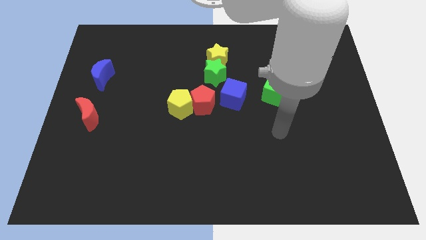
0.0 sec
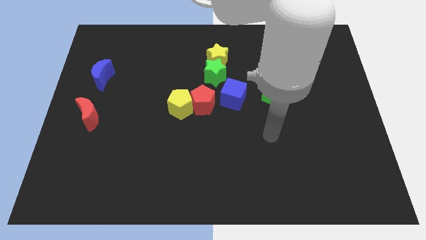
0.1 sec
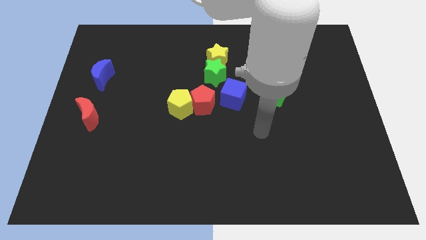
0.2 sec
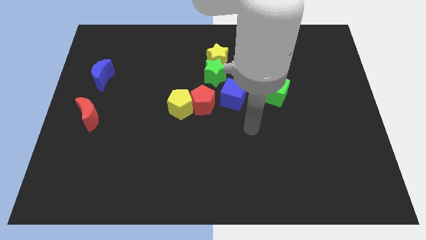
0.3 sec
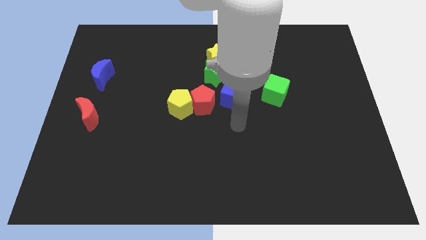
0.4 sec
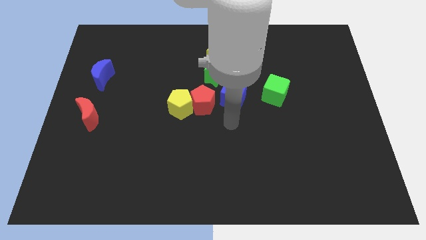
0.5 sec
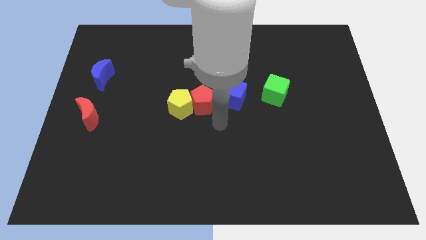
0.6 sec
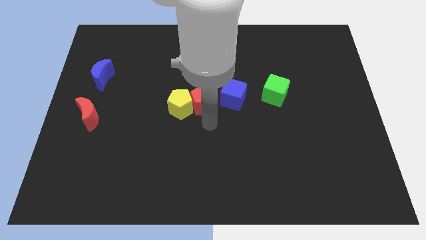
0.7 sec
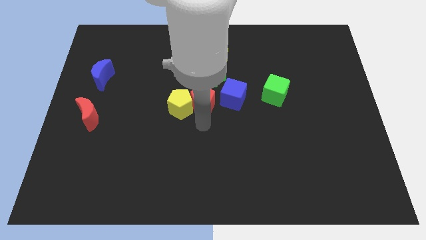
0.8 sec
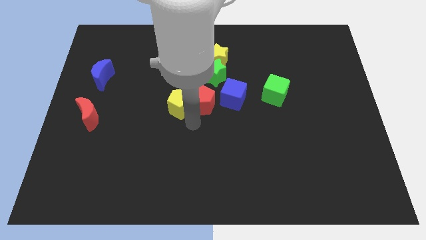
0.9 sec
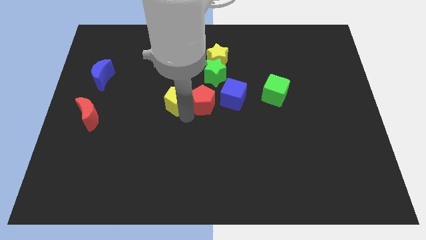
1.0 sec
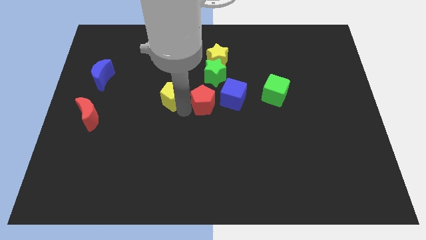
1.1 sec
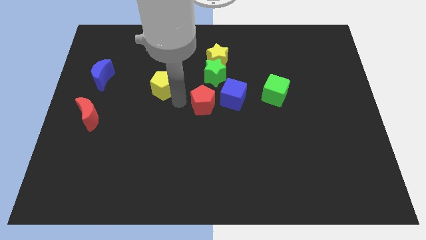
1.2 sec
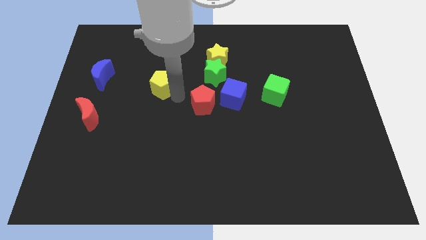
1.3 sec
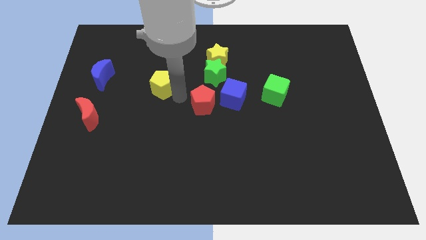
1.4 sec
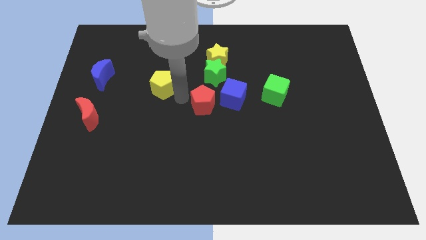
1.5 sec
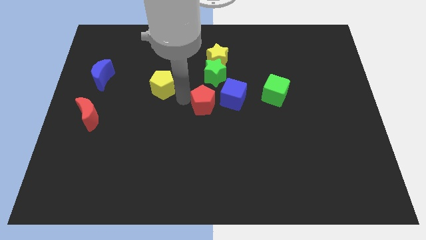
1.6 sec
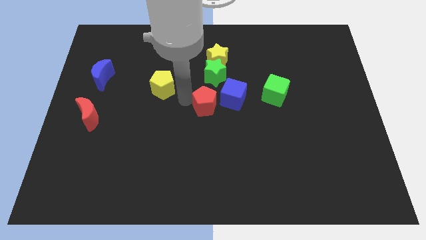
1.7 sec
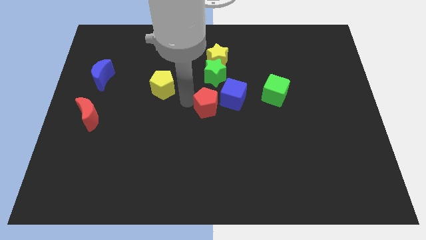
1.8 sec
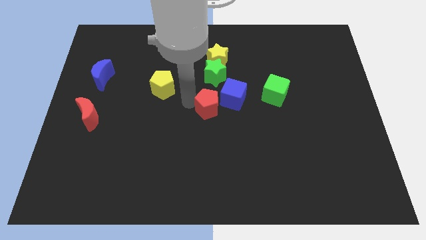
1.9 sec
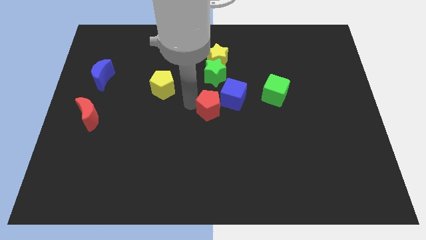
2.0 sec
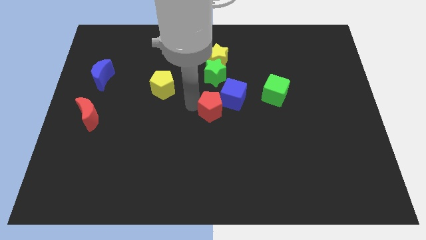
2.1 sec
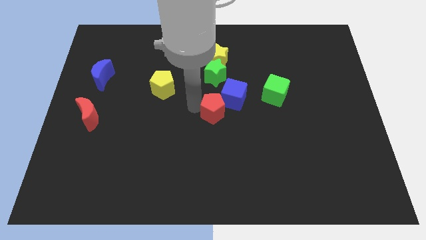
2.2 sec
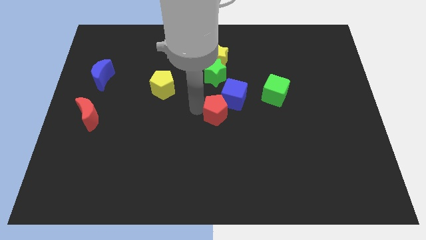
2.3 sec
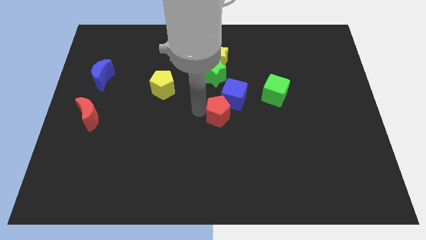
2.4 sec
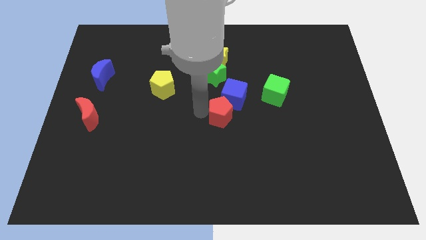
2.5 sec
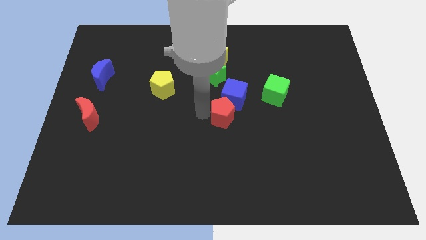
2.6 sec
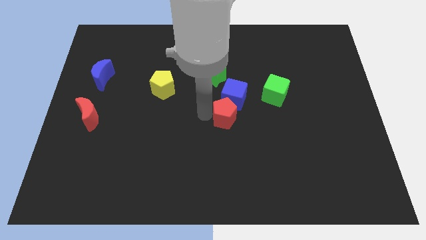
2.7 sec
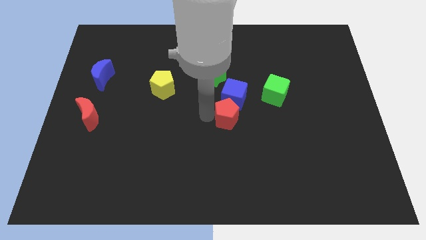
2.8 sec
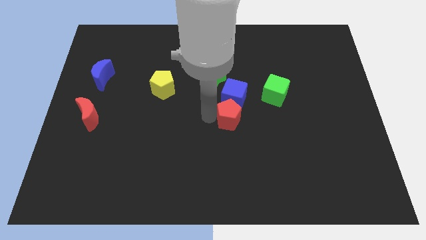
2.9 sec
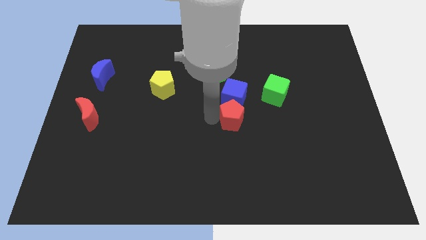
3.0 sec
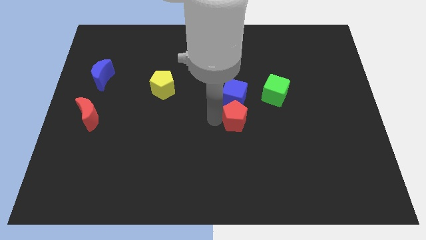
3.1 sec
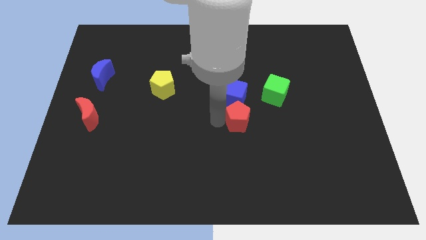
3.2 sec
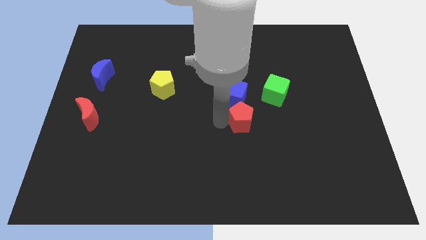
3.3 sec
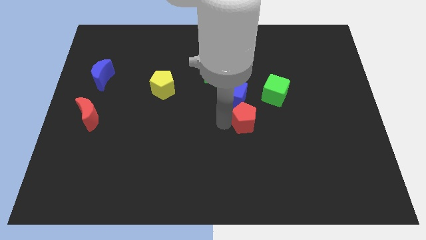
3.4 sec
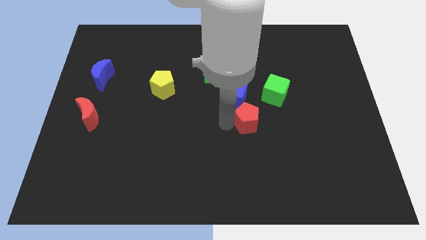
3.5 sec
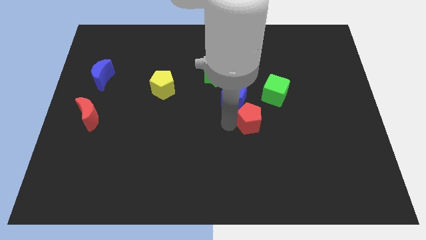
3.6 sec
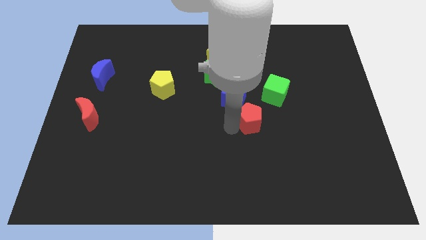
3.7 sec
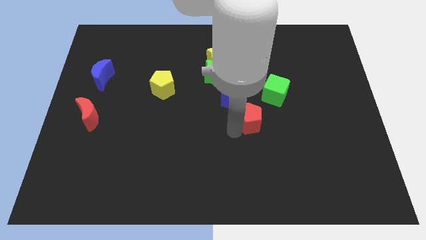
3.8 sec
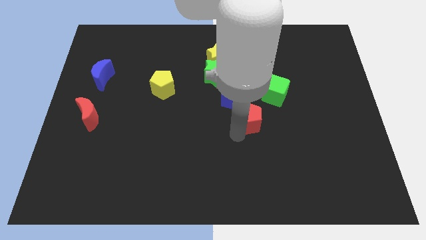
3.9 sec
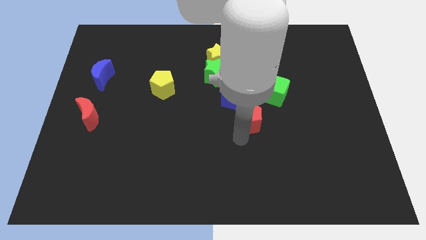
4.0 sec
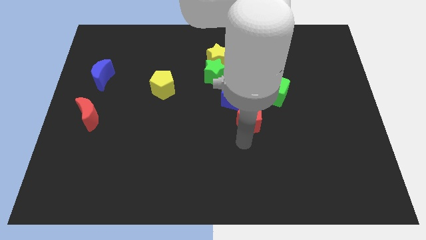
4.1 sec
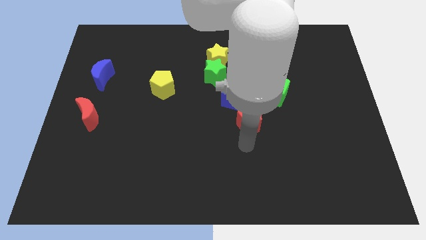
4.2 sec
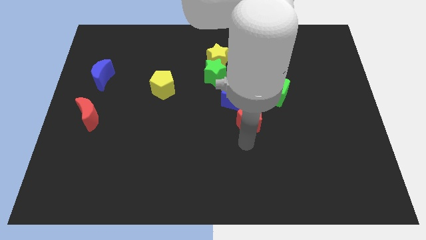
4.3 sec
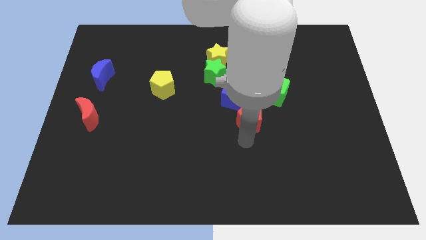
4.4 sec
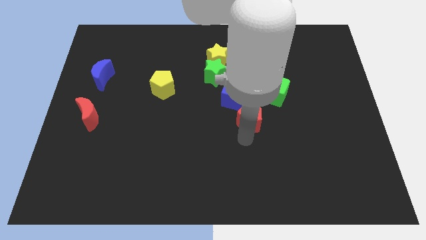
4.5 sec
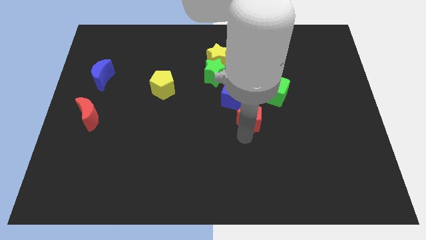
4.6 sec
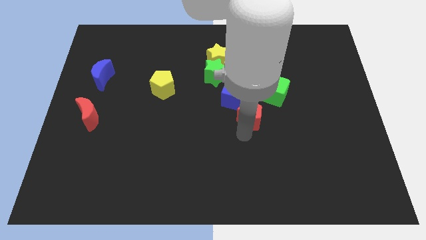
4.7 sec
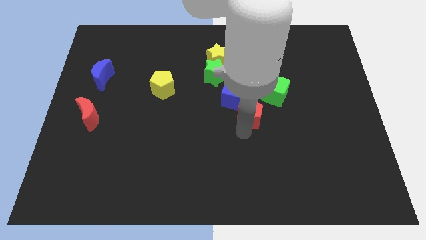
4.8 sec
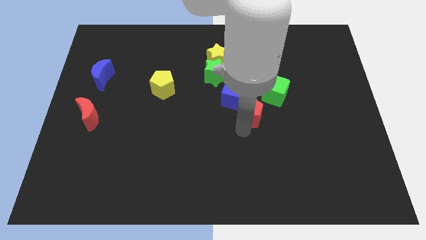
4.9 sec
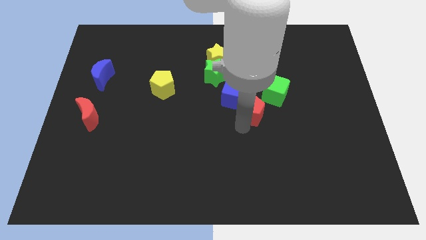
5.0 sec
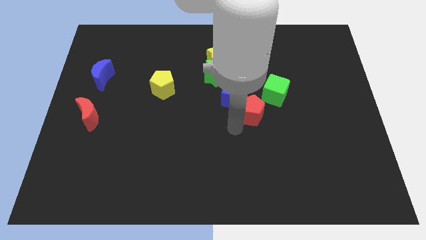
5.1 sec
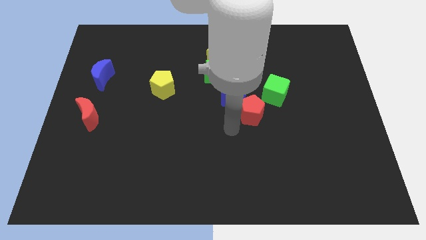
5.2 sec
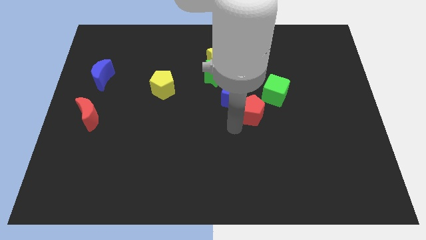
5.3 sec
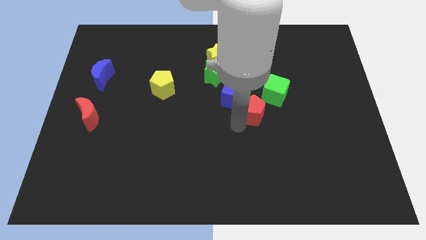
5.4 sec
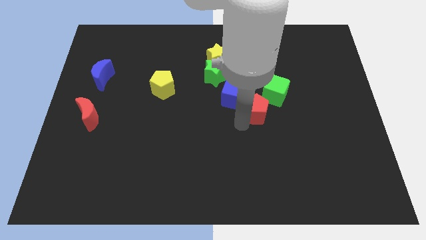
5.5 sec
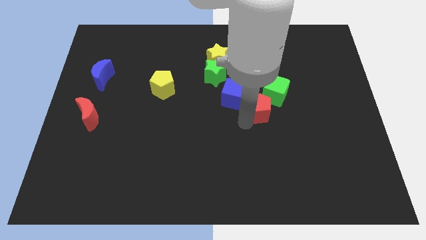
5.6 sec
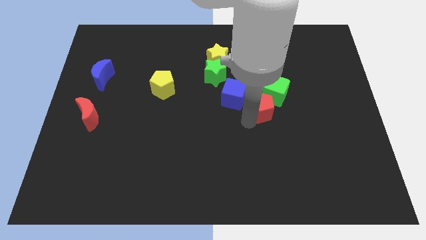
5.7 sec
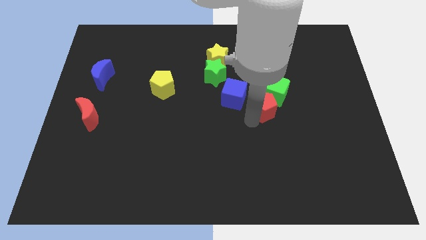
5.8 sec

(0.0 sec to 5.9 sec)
slide the red pentagon to the green cube

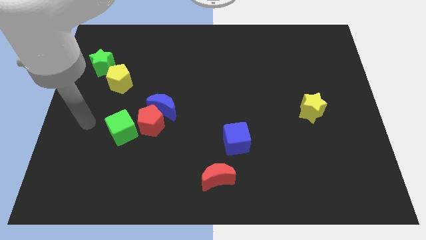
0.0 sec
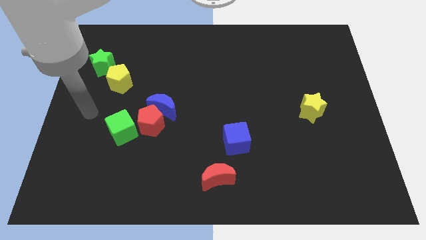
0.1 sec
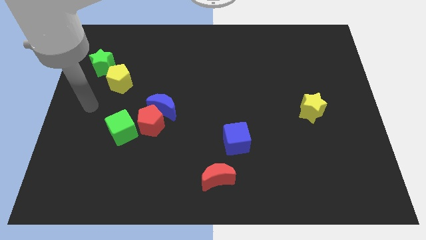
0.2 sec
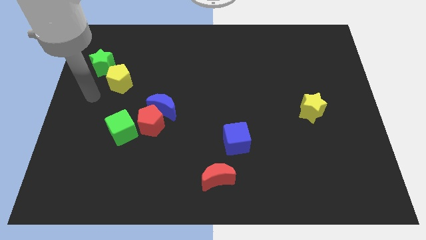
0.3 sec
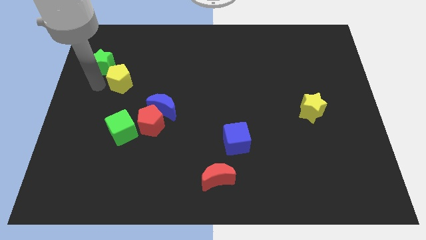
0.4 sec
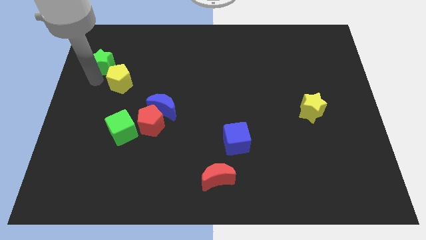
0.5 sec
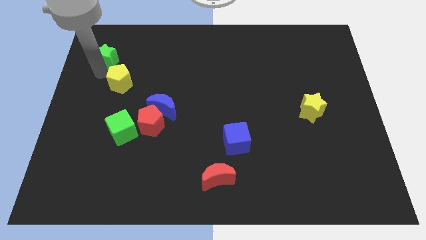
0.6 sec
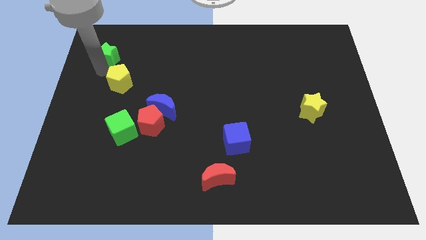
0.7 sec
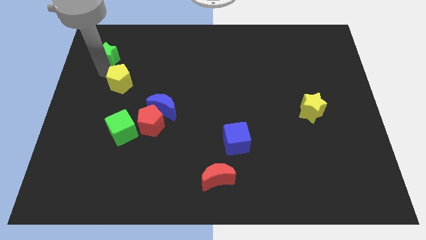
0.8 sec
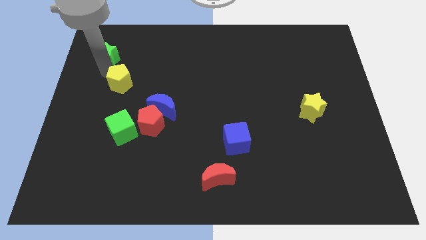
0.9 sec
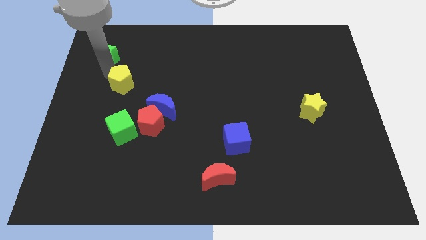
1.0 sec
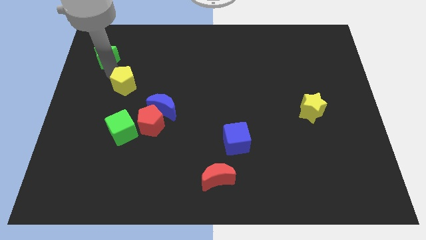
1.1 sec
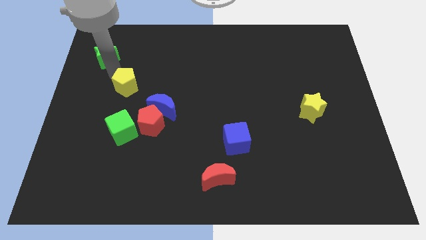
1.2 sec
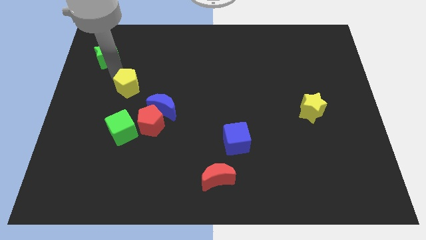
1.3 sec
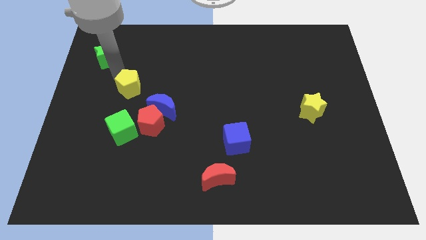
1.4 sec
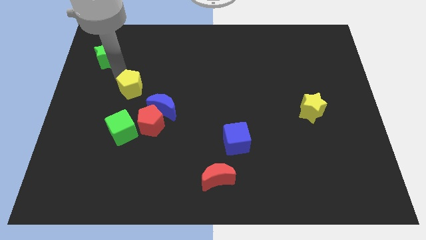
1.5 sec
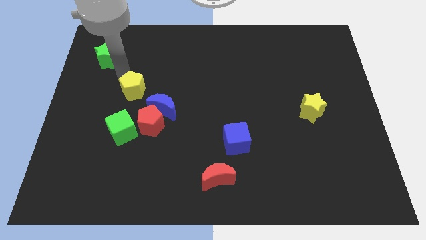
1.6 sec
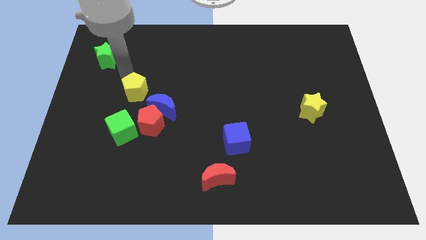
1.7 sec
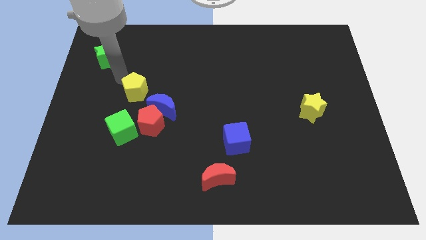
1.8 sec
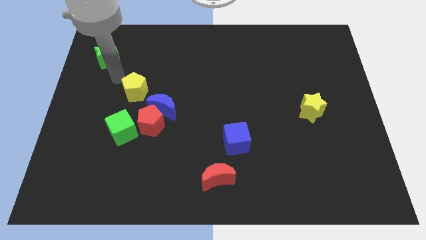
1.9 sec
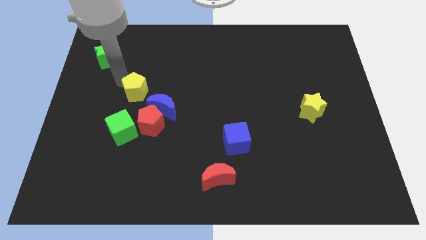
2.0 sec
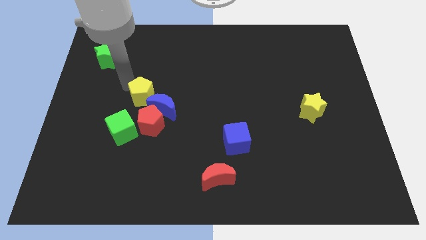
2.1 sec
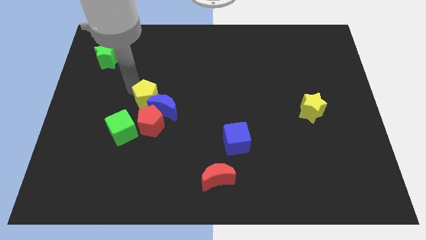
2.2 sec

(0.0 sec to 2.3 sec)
put the yellow pentagon next to the blue moon
